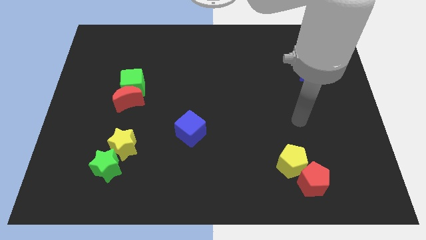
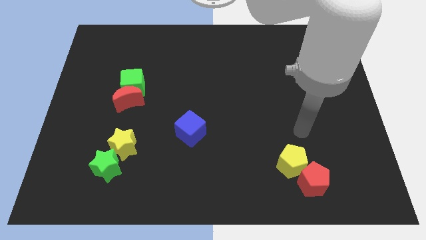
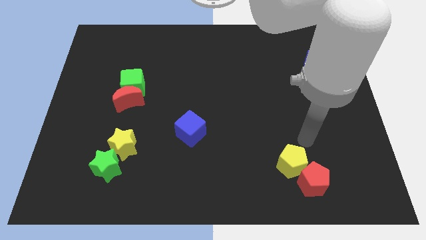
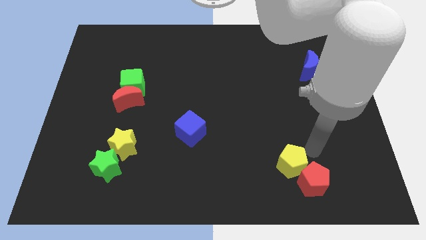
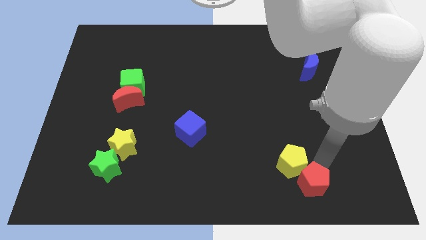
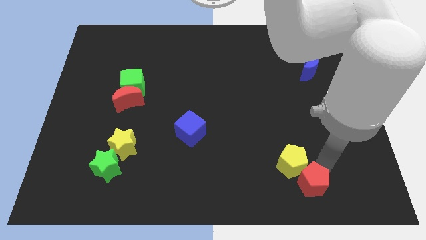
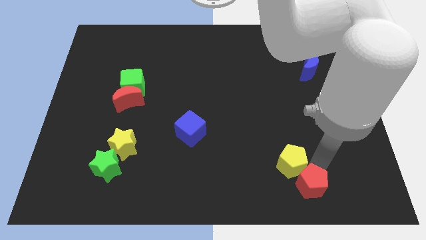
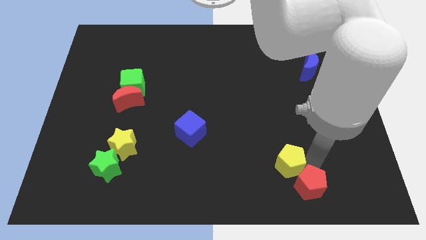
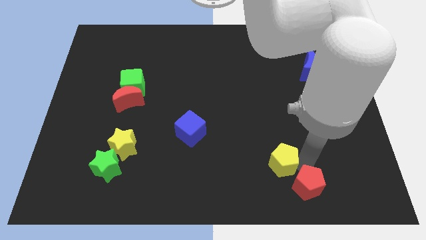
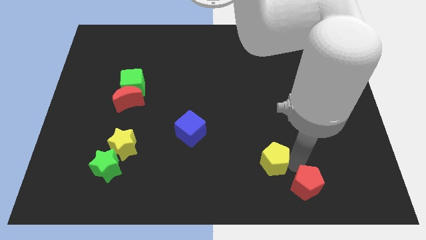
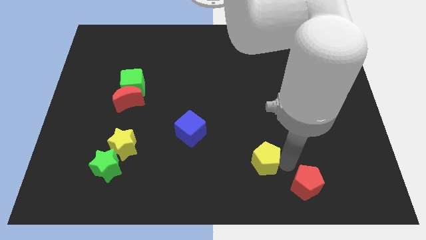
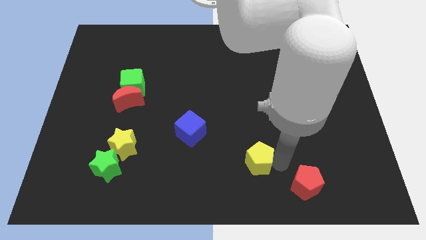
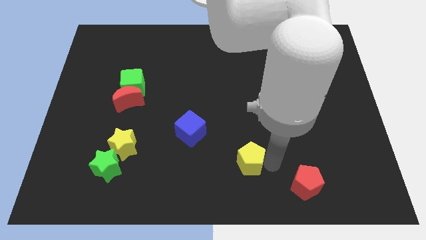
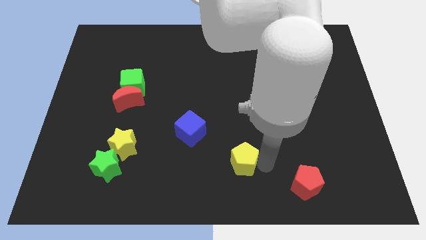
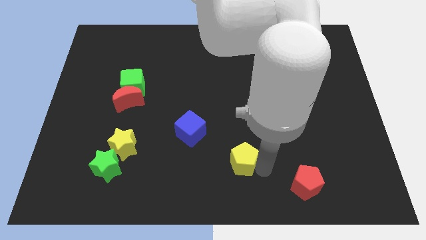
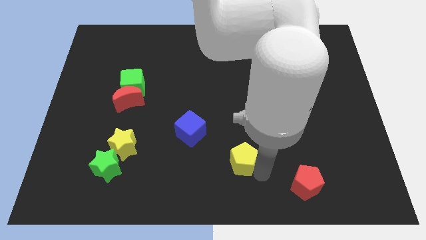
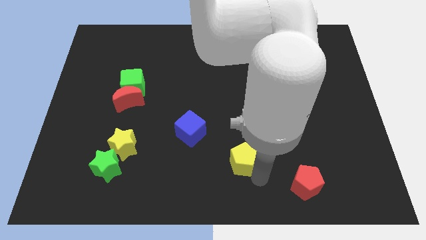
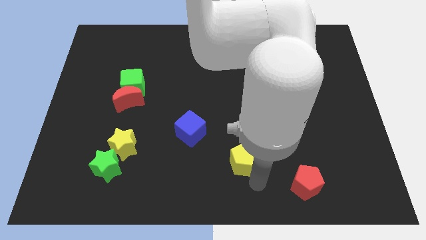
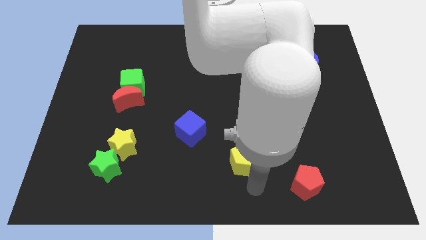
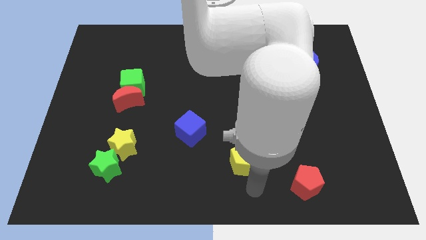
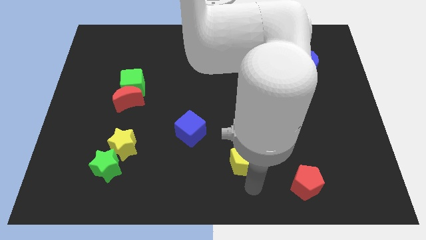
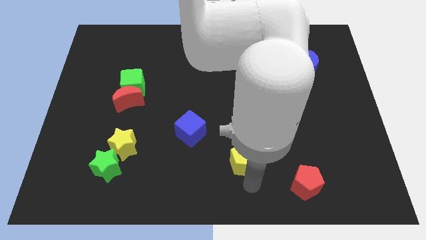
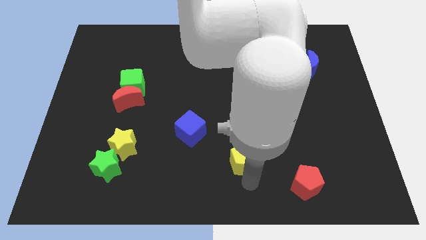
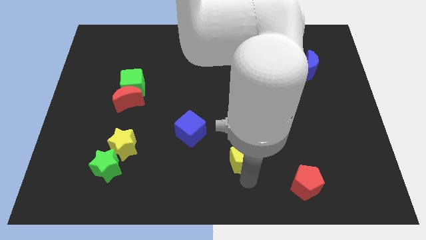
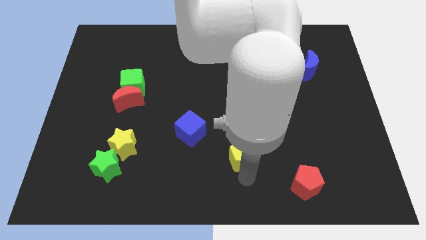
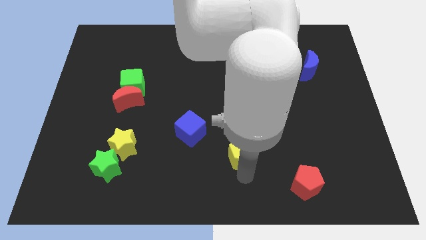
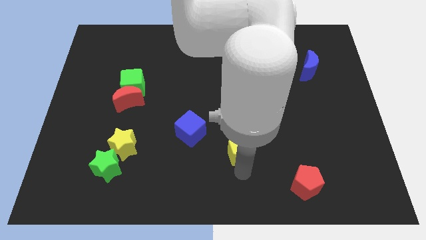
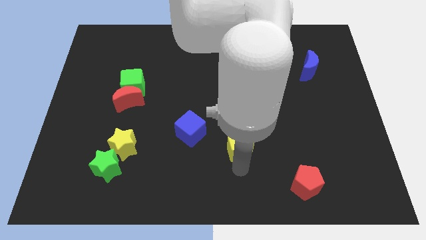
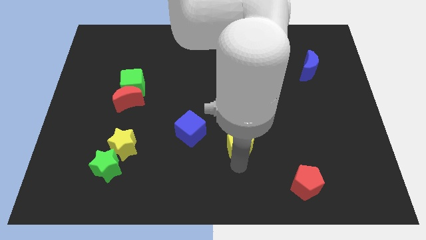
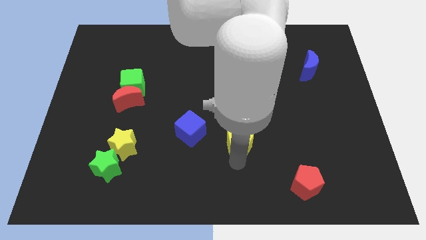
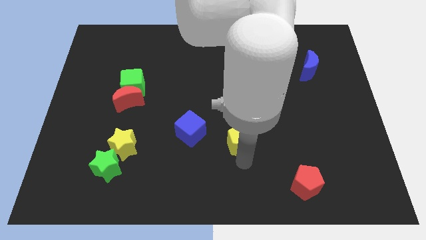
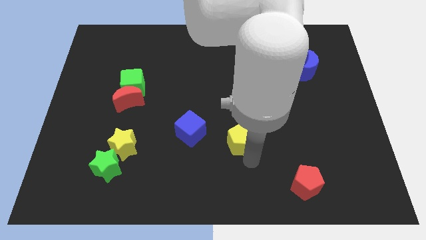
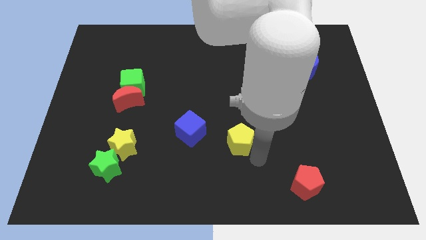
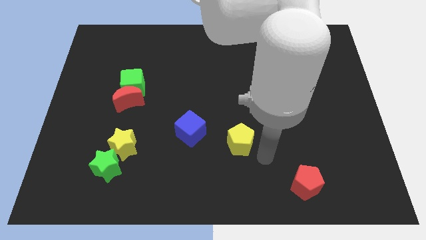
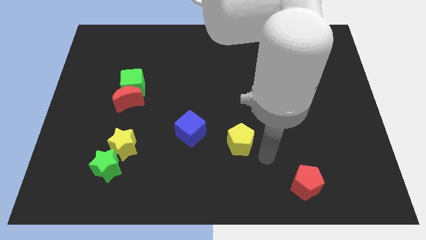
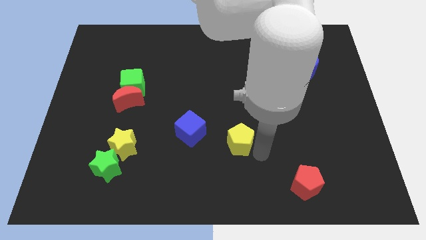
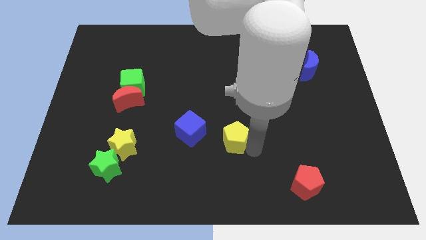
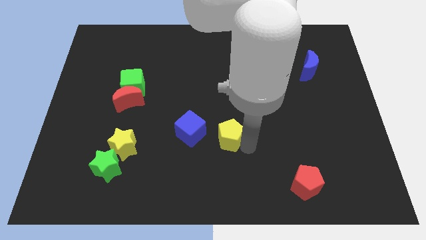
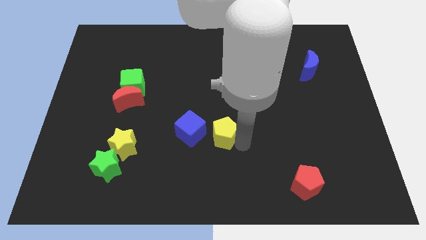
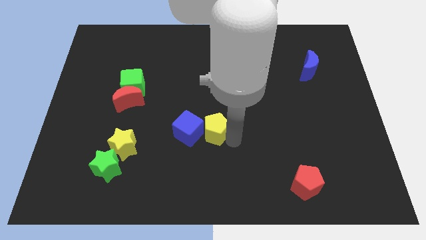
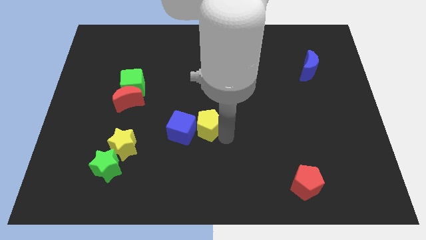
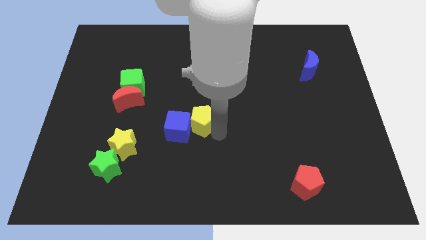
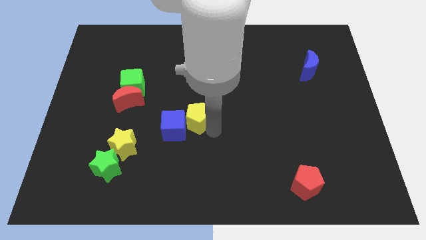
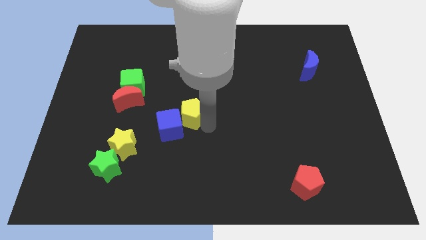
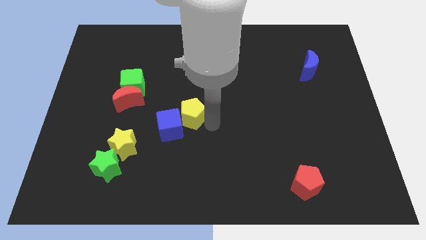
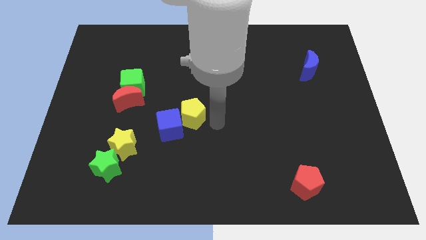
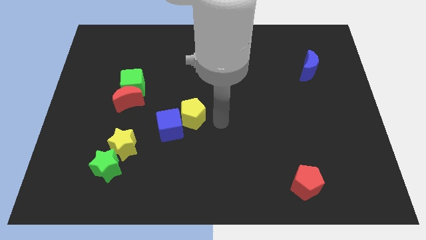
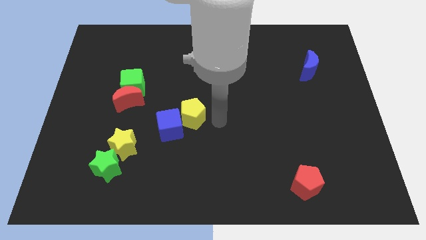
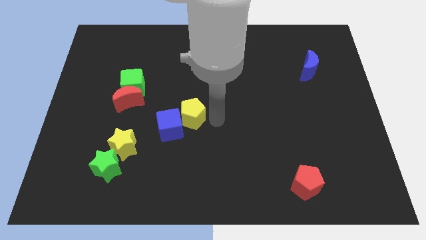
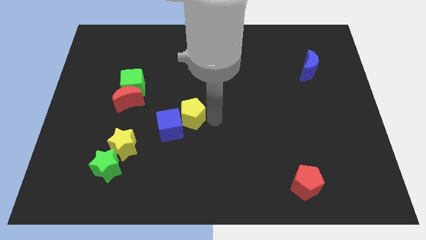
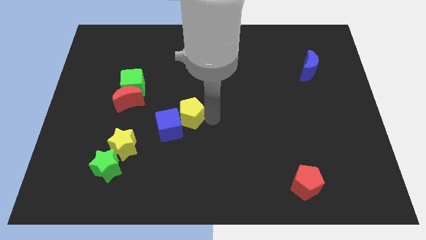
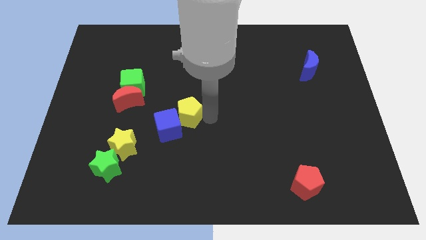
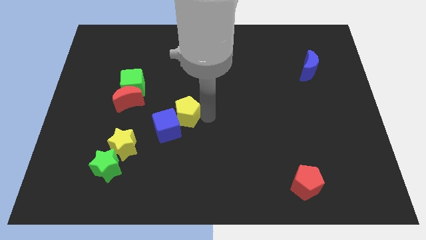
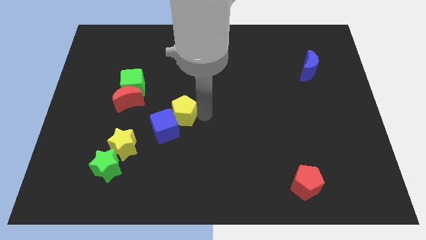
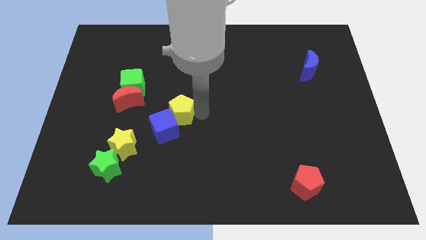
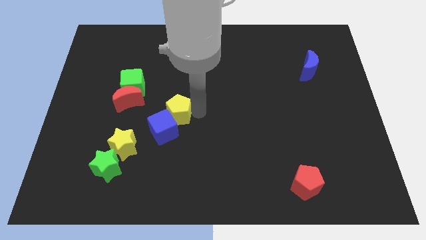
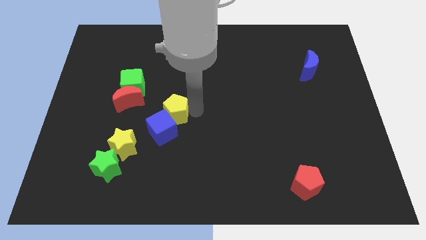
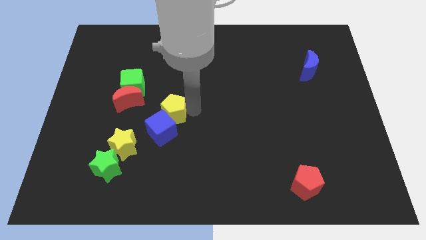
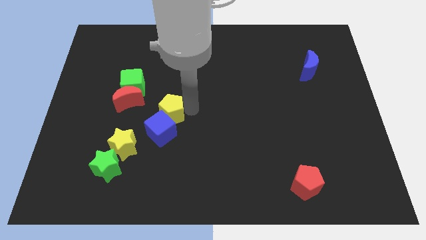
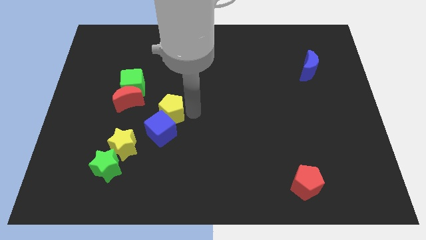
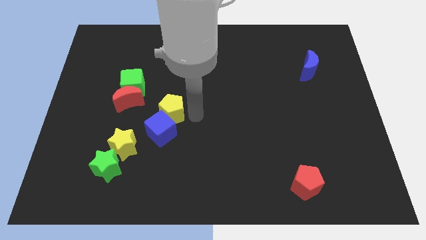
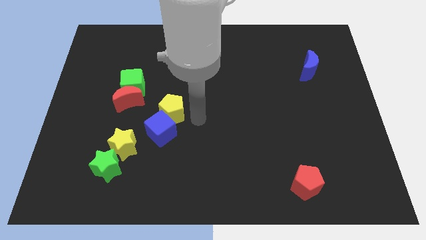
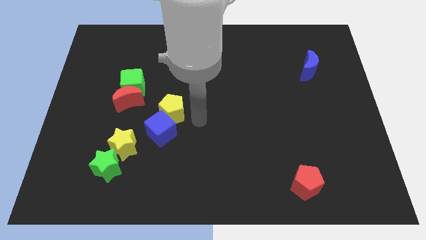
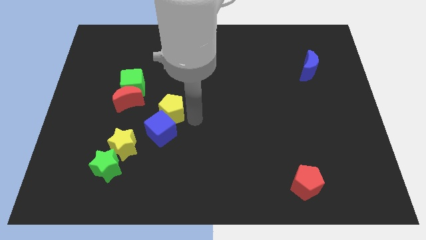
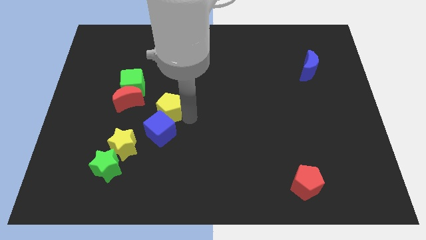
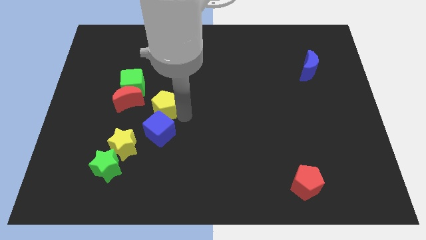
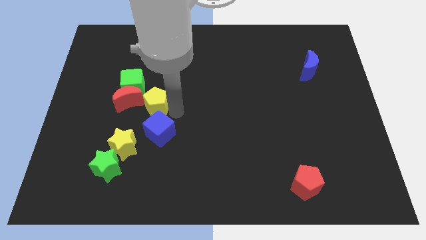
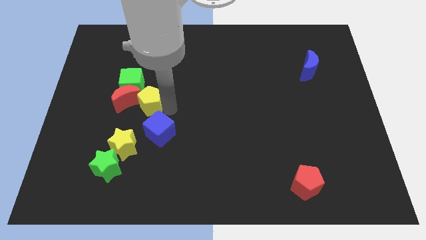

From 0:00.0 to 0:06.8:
slide the yellow pentagon to the red moon

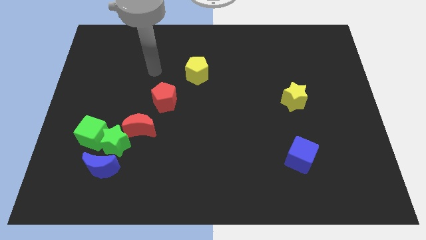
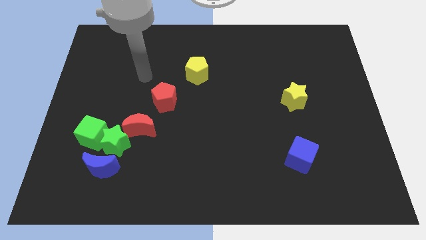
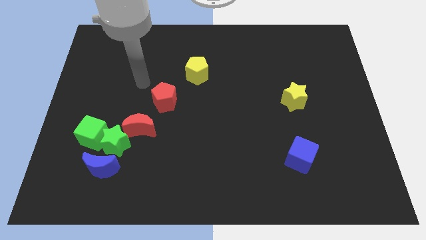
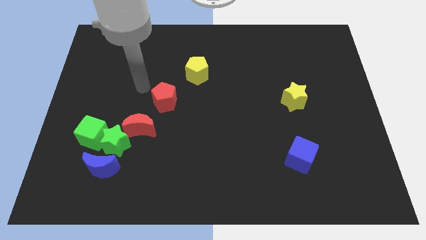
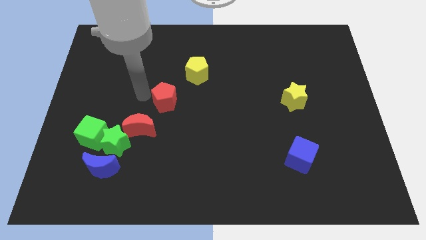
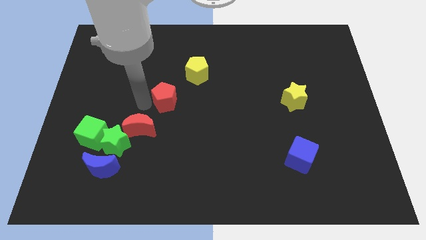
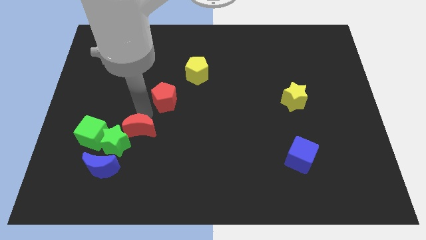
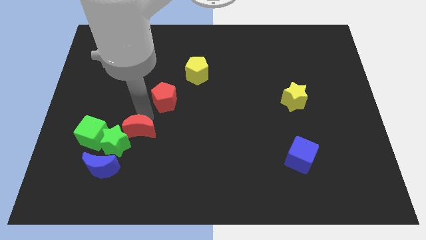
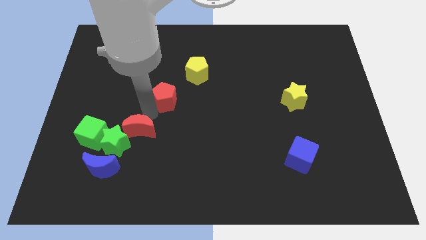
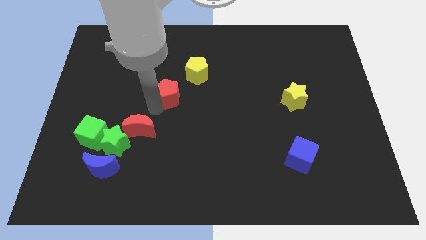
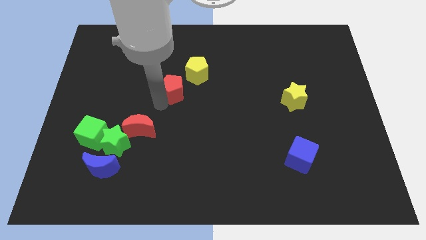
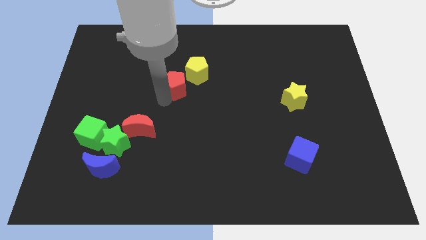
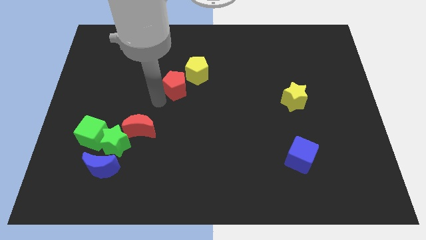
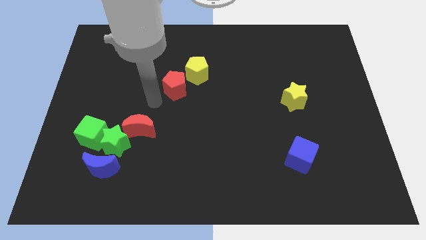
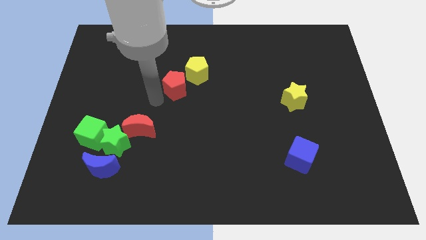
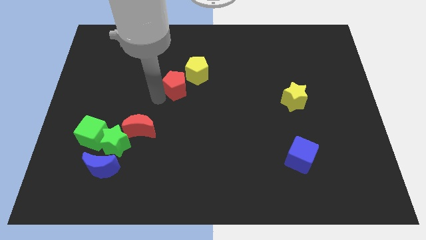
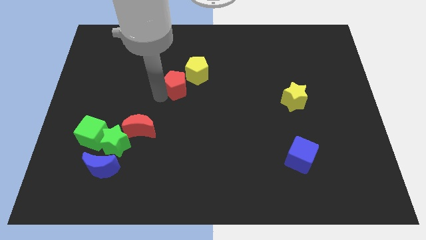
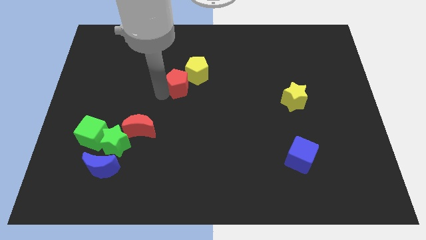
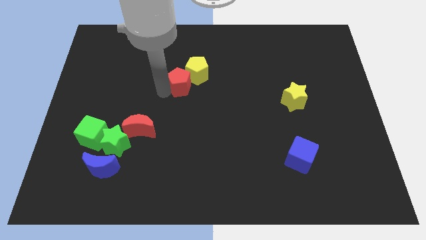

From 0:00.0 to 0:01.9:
move the red pentagon towards the yellow pentagon
